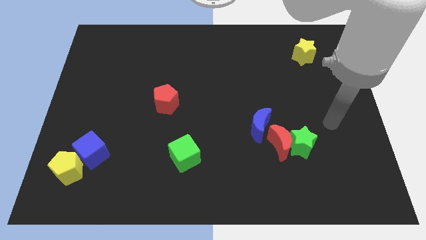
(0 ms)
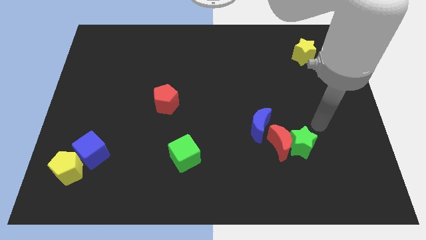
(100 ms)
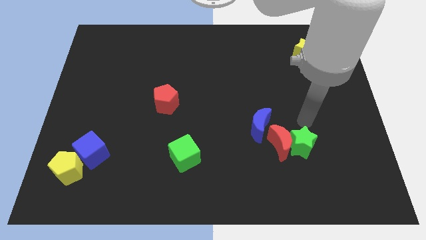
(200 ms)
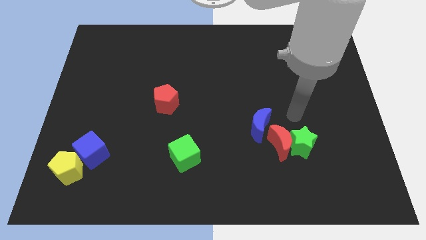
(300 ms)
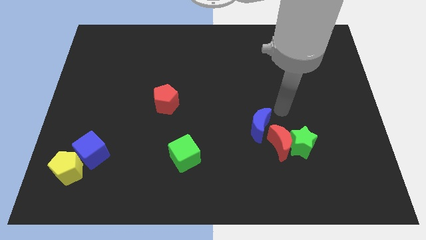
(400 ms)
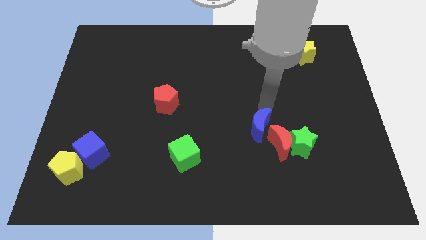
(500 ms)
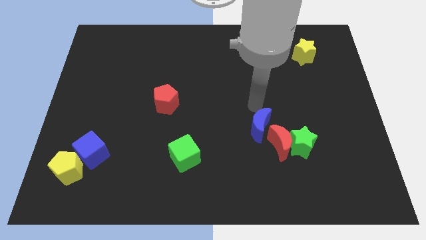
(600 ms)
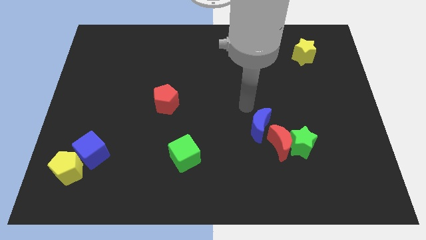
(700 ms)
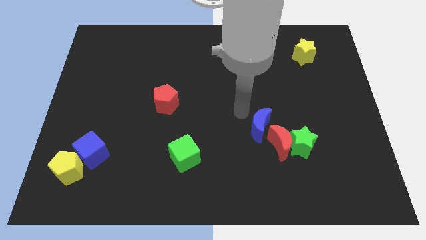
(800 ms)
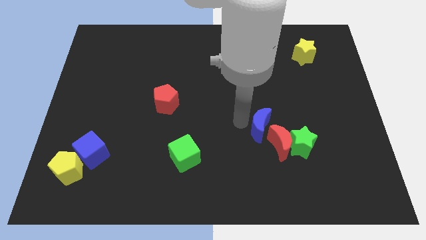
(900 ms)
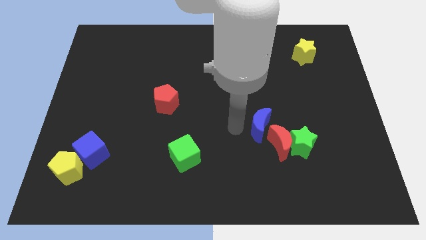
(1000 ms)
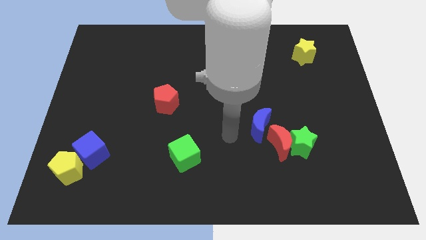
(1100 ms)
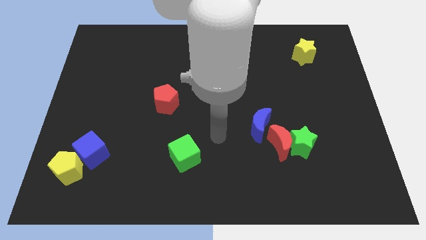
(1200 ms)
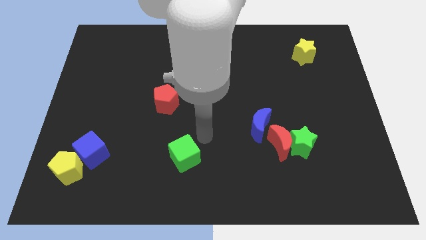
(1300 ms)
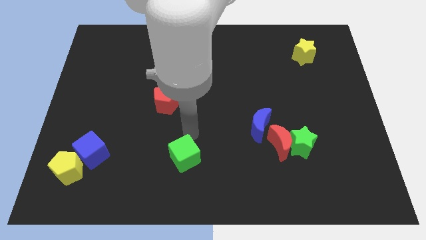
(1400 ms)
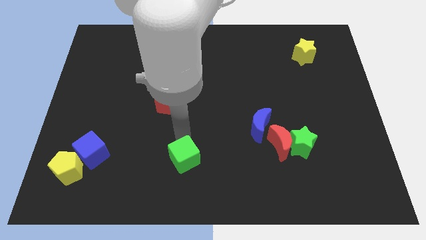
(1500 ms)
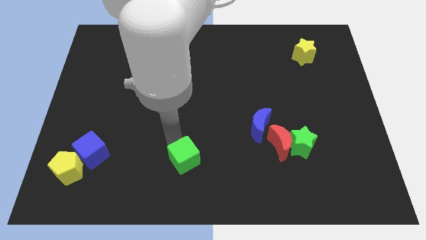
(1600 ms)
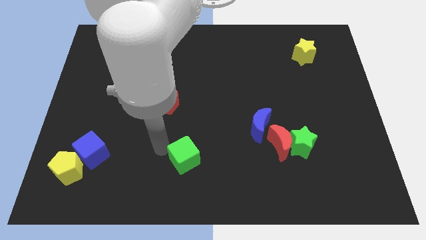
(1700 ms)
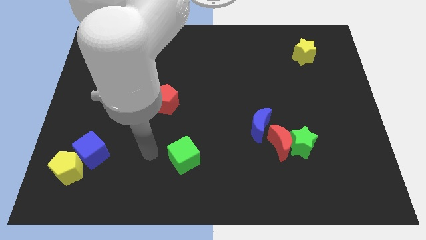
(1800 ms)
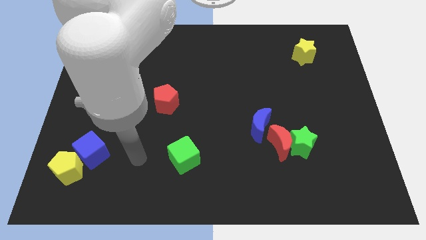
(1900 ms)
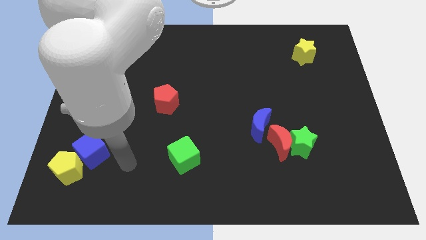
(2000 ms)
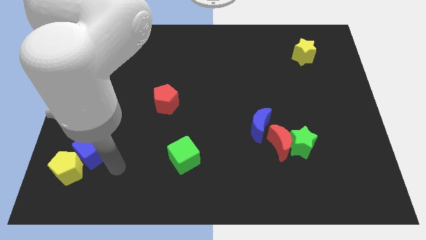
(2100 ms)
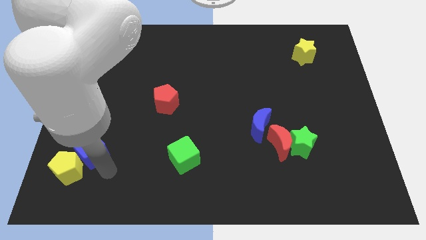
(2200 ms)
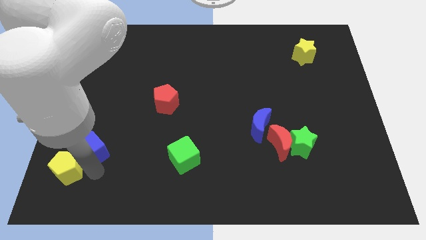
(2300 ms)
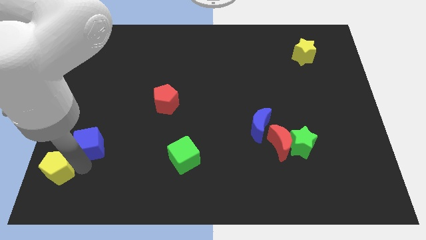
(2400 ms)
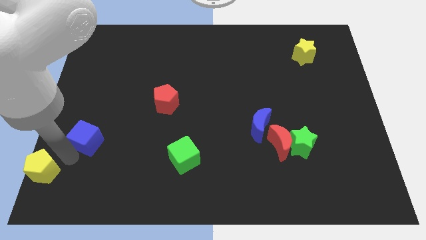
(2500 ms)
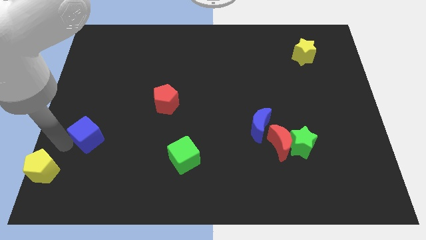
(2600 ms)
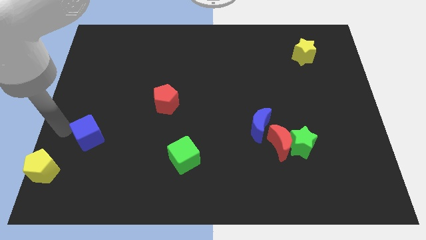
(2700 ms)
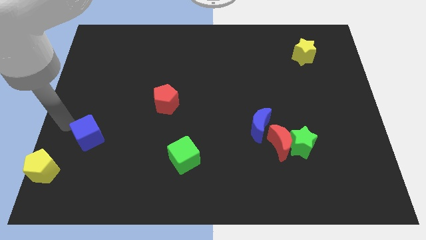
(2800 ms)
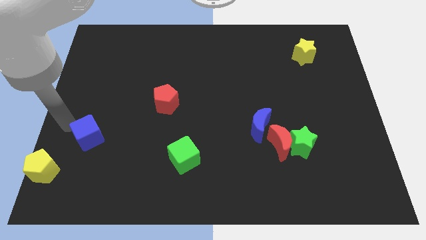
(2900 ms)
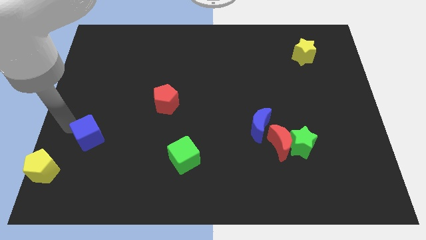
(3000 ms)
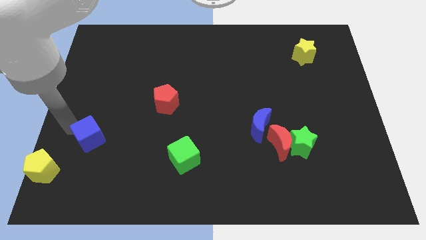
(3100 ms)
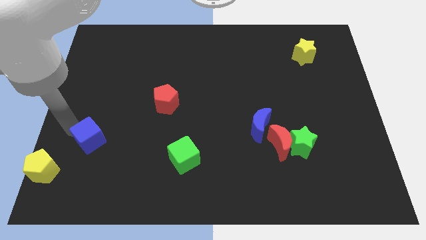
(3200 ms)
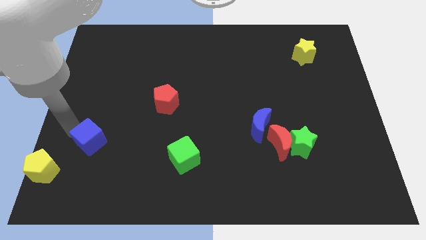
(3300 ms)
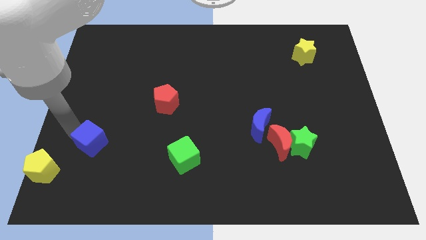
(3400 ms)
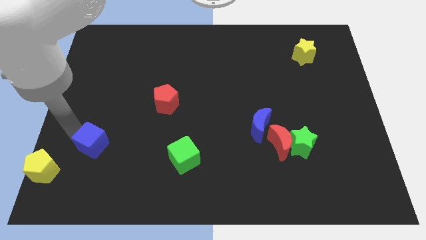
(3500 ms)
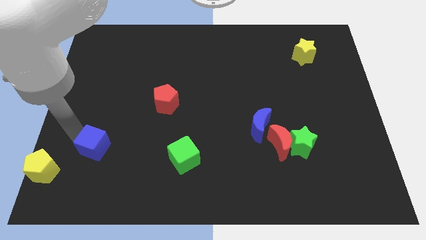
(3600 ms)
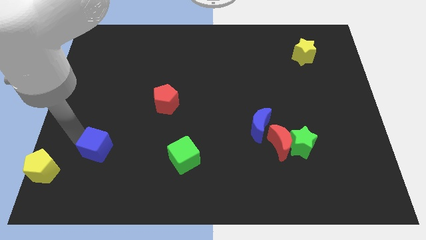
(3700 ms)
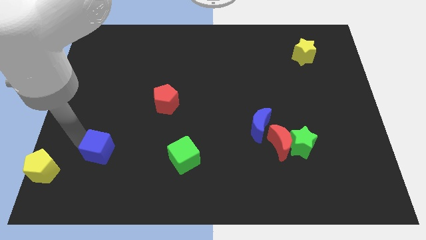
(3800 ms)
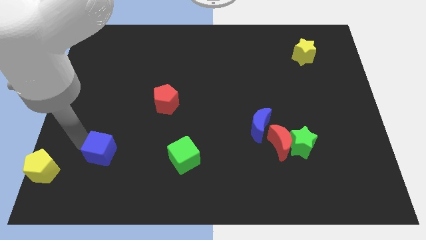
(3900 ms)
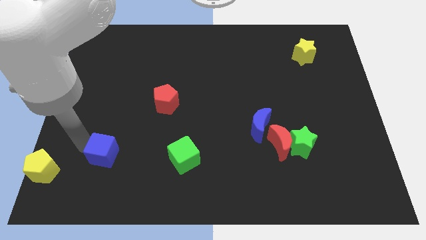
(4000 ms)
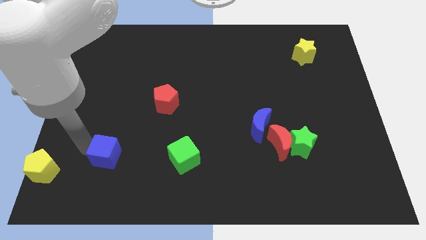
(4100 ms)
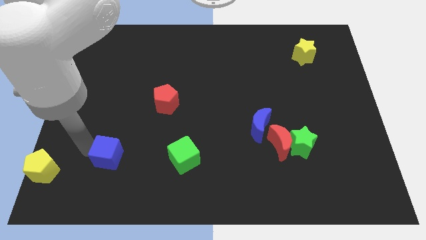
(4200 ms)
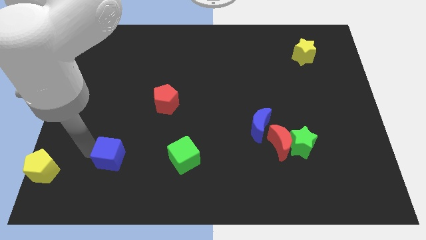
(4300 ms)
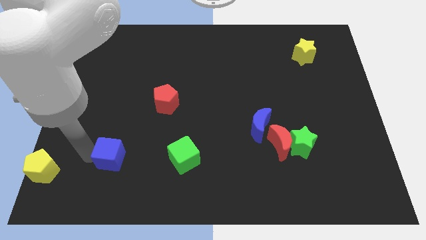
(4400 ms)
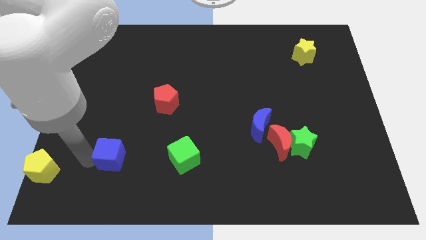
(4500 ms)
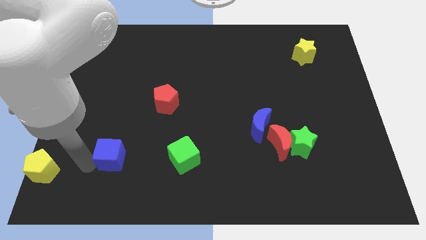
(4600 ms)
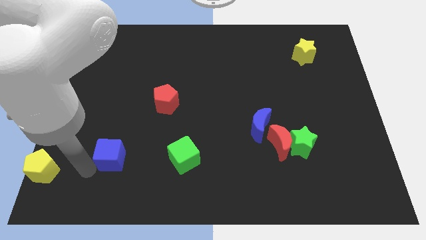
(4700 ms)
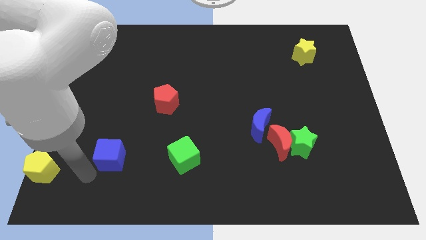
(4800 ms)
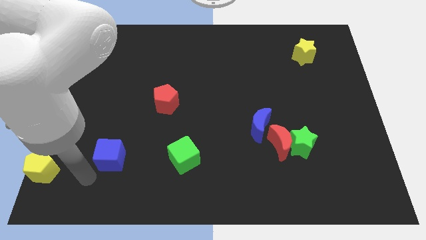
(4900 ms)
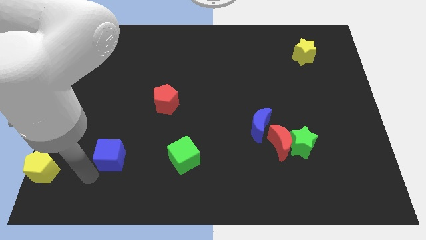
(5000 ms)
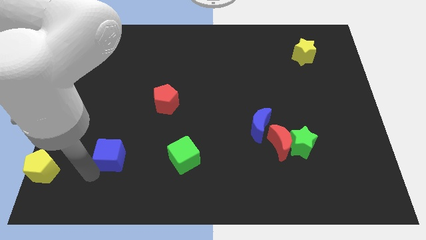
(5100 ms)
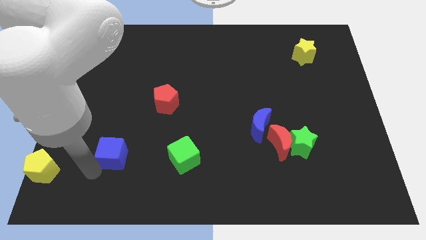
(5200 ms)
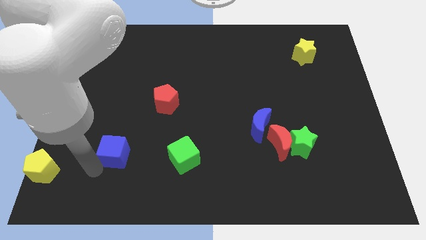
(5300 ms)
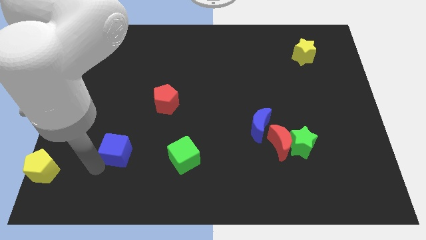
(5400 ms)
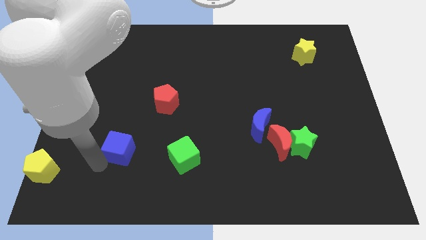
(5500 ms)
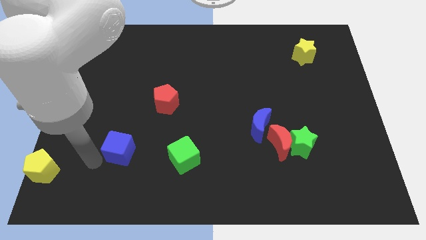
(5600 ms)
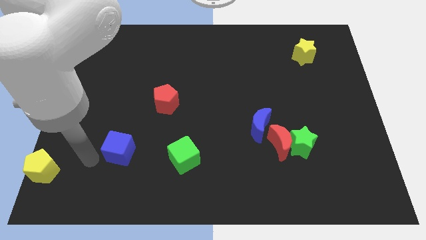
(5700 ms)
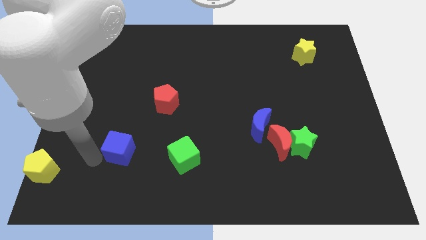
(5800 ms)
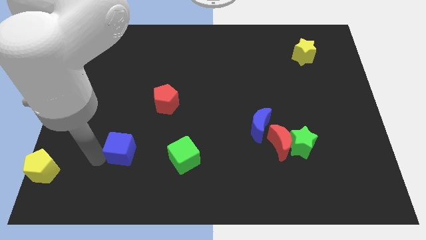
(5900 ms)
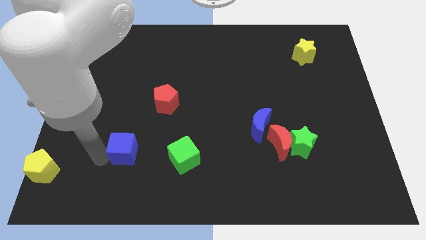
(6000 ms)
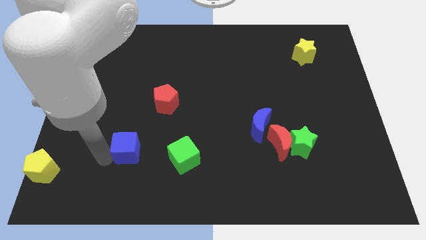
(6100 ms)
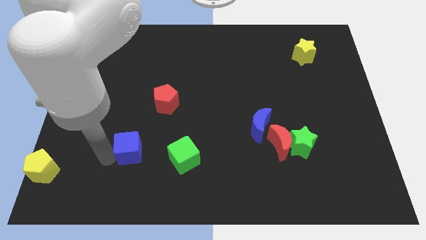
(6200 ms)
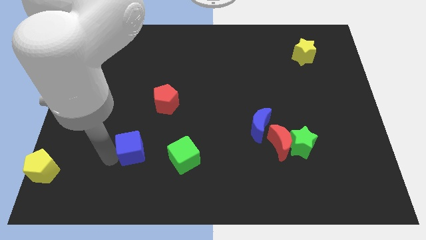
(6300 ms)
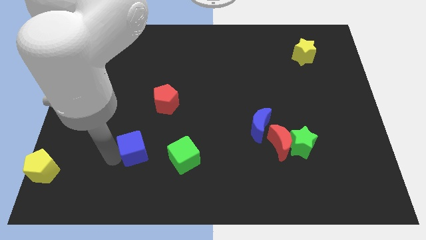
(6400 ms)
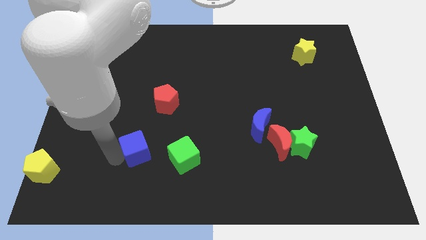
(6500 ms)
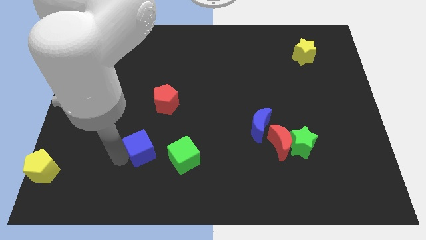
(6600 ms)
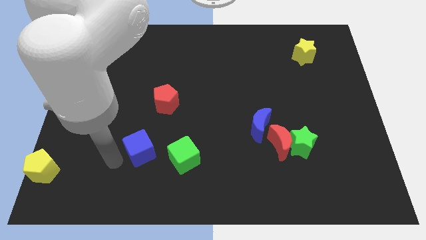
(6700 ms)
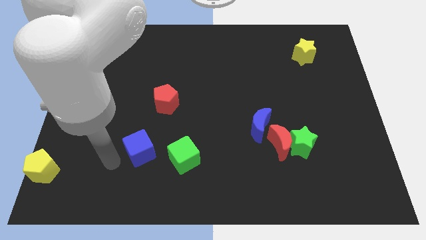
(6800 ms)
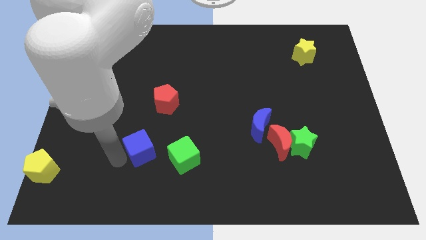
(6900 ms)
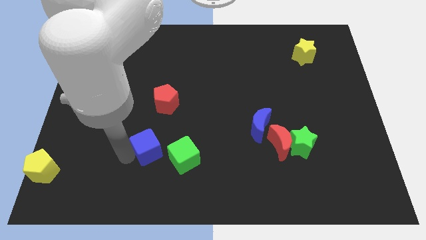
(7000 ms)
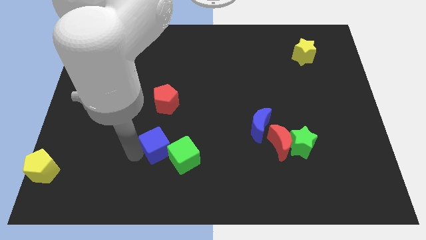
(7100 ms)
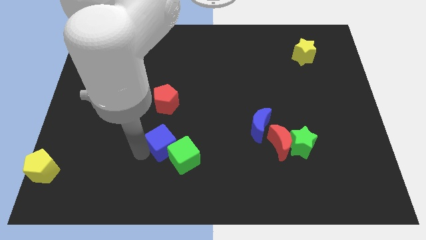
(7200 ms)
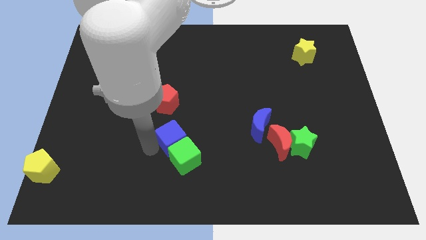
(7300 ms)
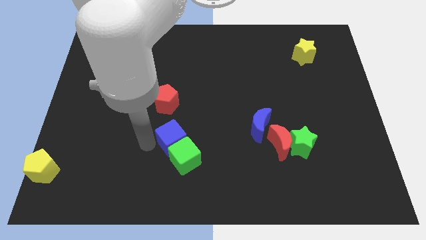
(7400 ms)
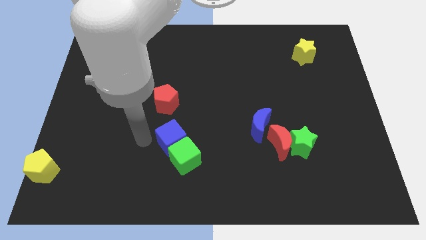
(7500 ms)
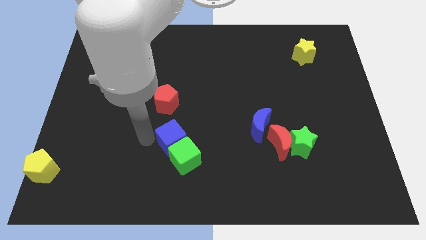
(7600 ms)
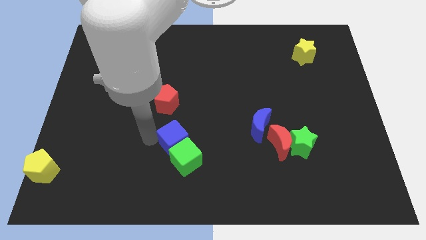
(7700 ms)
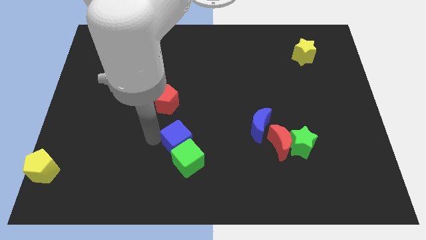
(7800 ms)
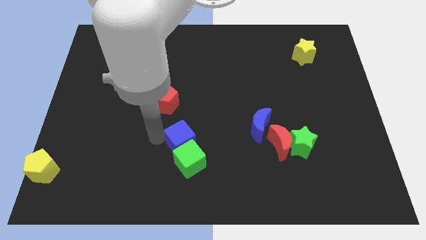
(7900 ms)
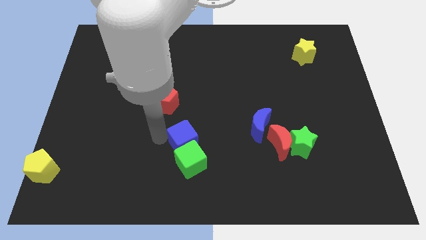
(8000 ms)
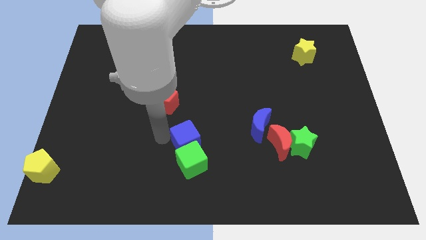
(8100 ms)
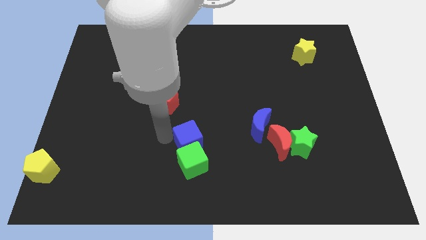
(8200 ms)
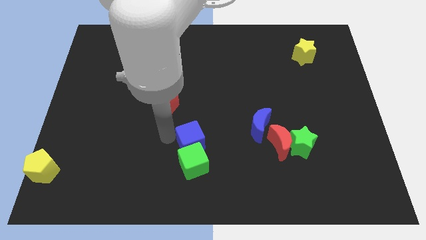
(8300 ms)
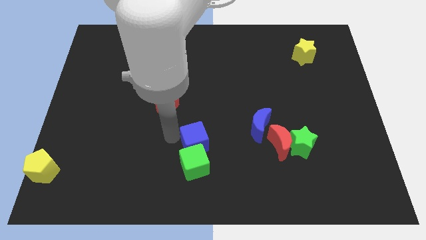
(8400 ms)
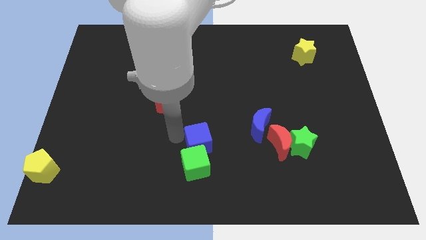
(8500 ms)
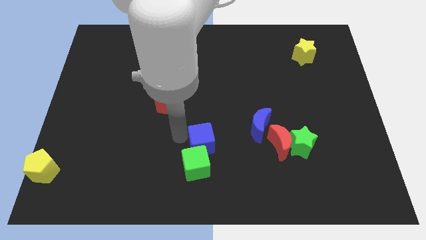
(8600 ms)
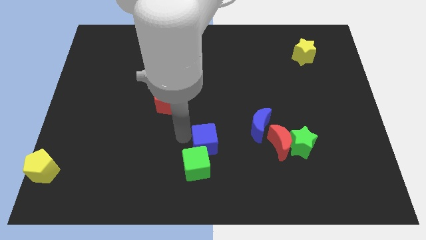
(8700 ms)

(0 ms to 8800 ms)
move the blue cube left of the red moon
